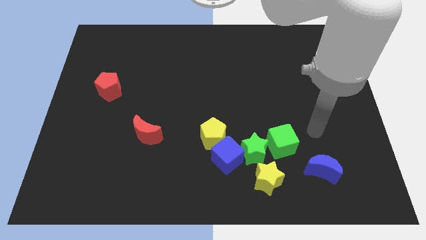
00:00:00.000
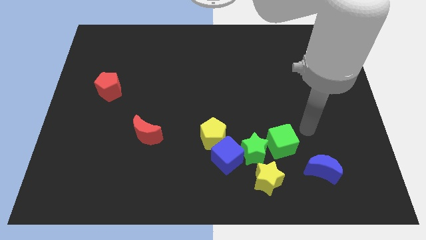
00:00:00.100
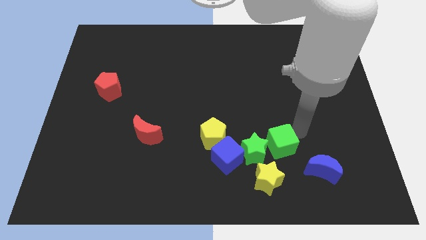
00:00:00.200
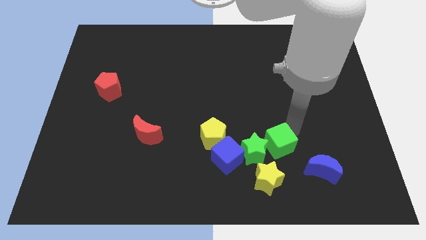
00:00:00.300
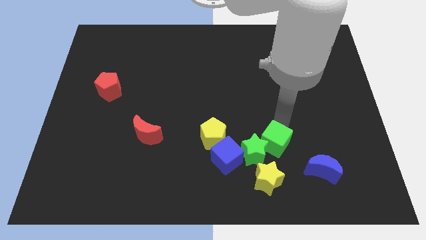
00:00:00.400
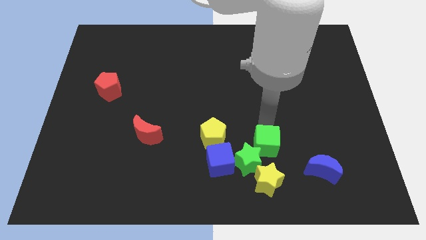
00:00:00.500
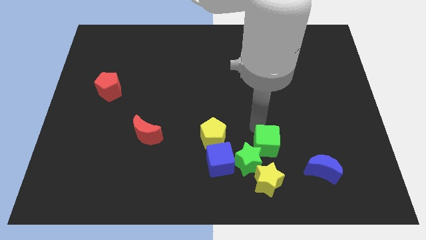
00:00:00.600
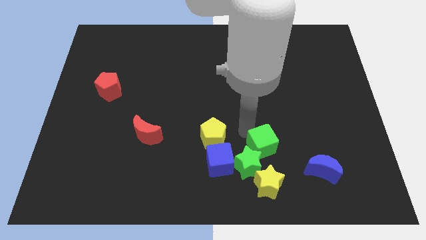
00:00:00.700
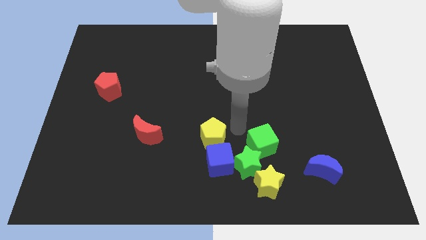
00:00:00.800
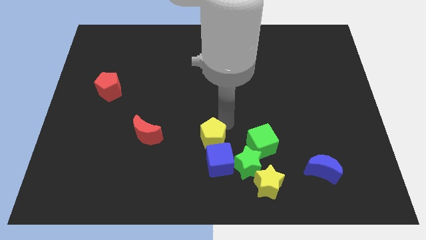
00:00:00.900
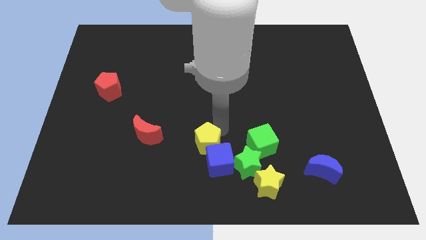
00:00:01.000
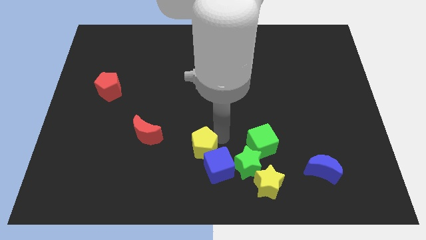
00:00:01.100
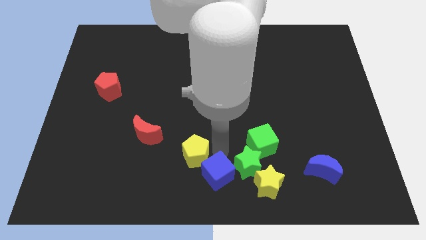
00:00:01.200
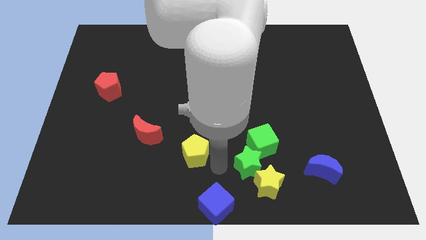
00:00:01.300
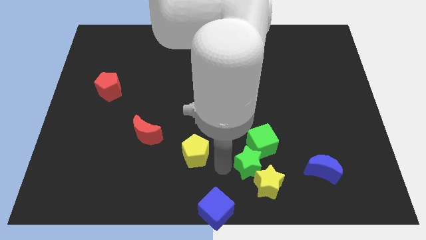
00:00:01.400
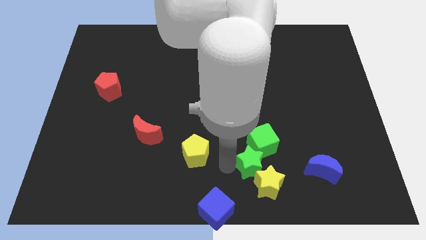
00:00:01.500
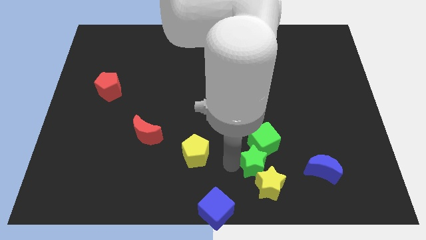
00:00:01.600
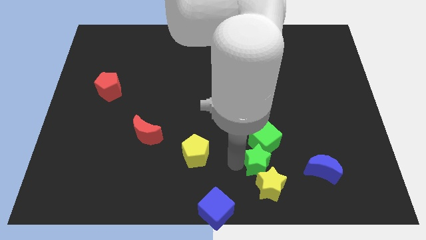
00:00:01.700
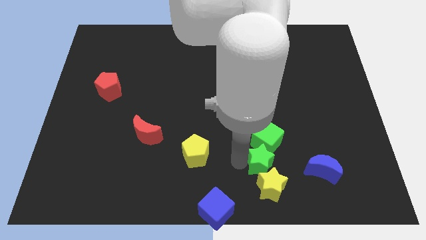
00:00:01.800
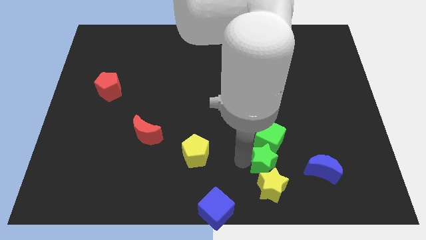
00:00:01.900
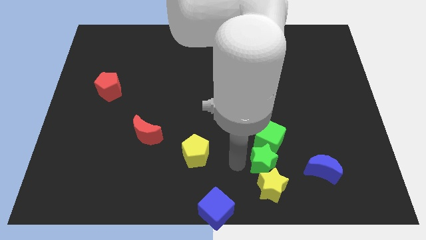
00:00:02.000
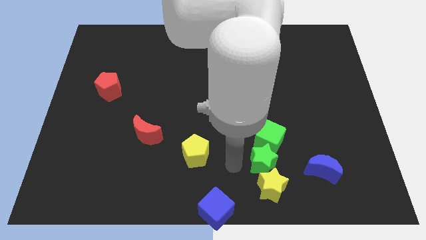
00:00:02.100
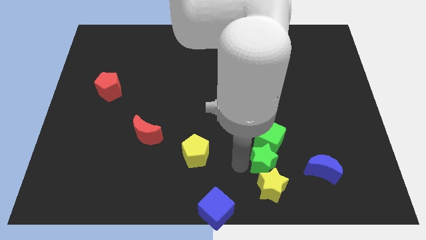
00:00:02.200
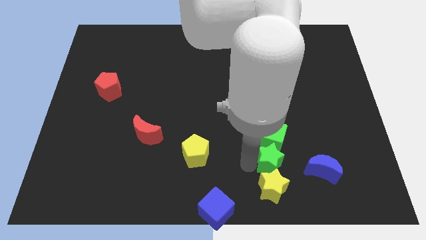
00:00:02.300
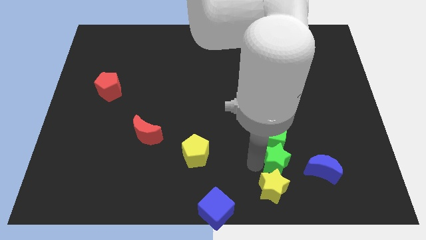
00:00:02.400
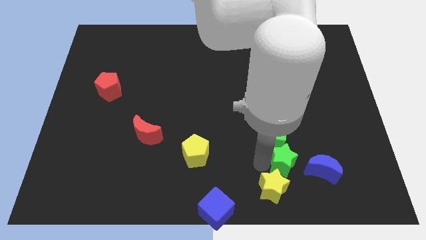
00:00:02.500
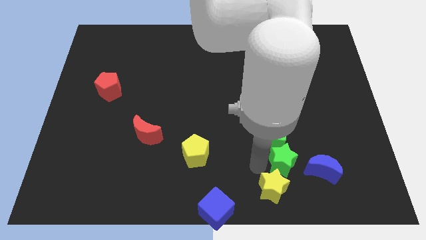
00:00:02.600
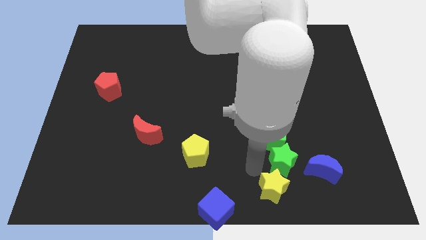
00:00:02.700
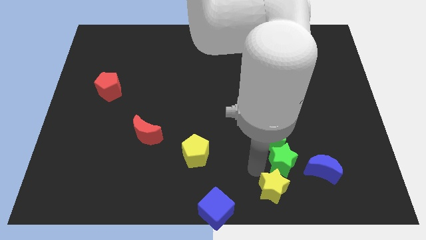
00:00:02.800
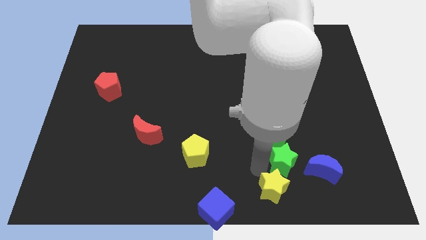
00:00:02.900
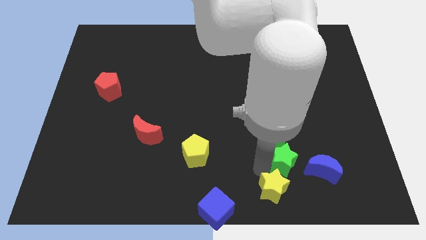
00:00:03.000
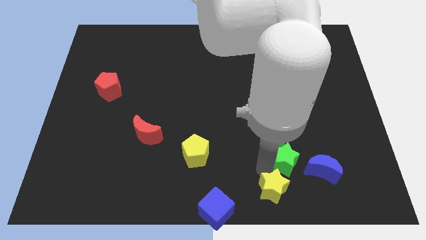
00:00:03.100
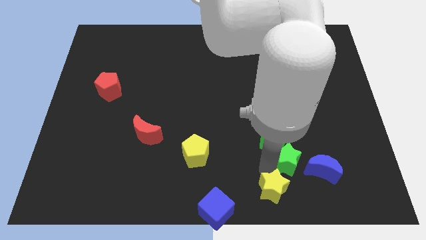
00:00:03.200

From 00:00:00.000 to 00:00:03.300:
separate the green star from the clump

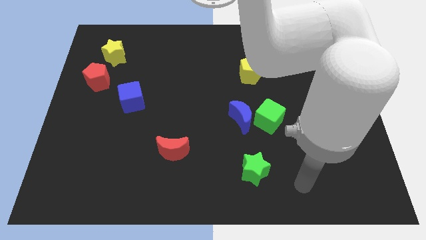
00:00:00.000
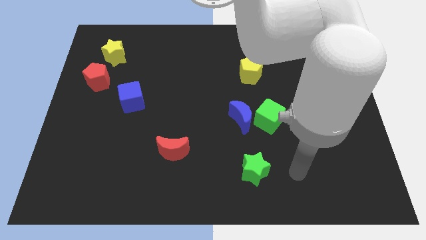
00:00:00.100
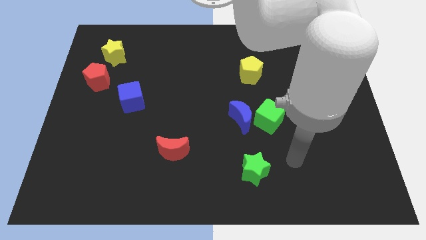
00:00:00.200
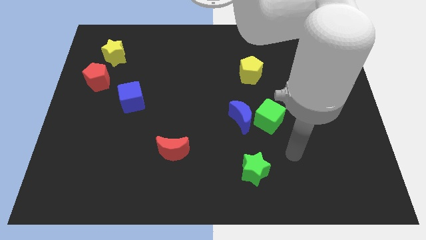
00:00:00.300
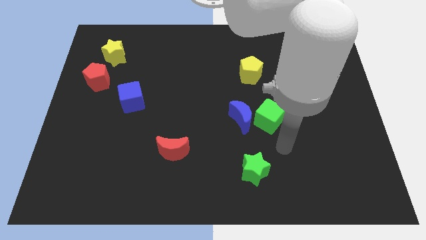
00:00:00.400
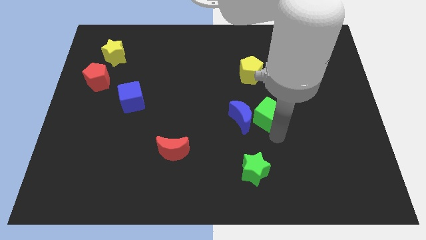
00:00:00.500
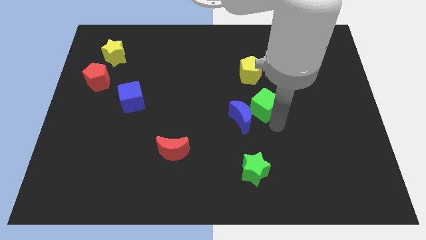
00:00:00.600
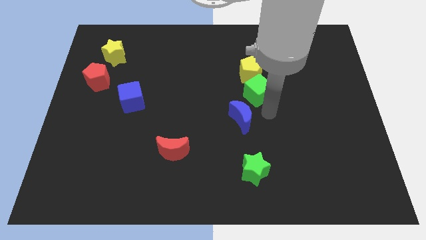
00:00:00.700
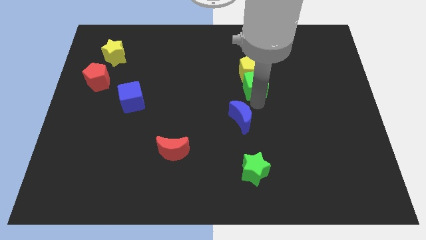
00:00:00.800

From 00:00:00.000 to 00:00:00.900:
move the blue moon away from the green cube

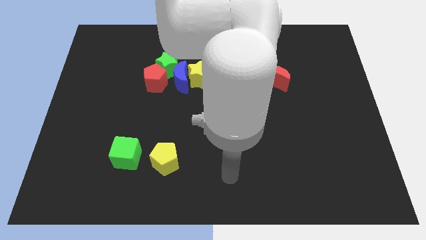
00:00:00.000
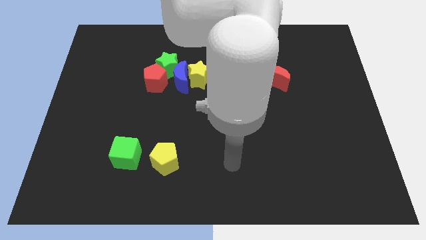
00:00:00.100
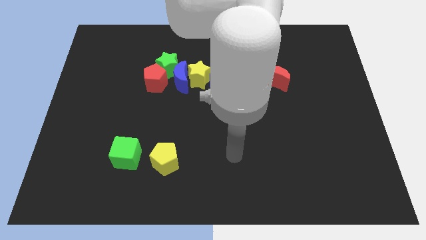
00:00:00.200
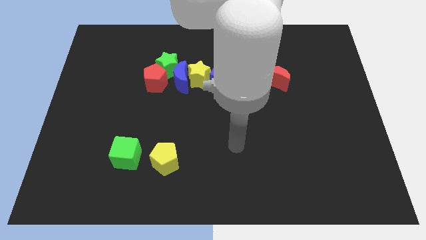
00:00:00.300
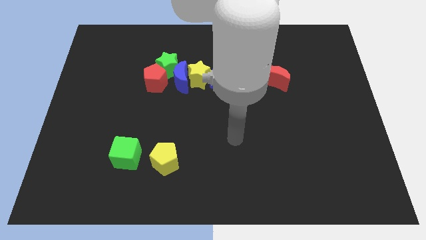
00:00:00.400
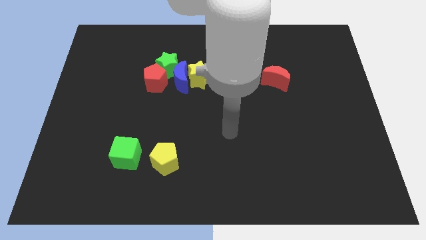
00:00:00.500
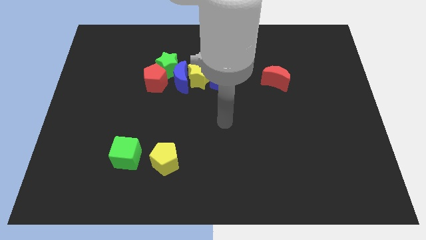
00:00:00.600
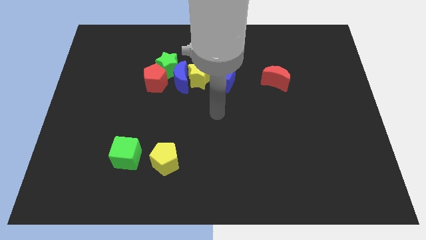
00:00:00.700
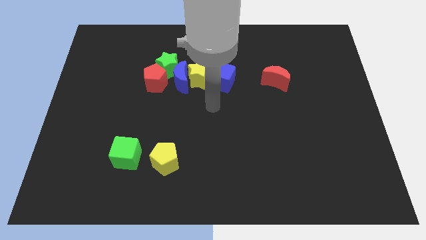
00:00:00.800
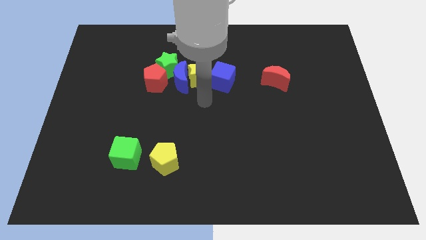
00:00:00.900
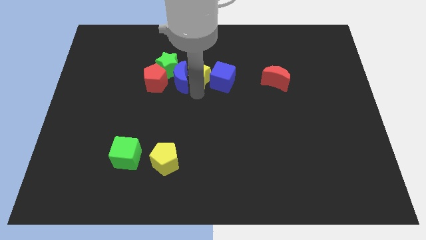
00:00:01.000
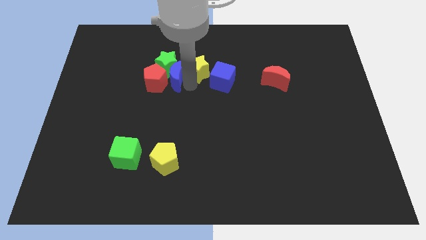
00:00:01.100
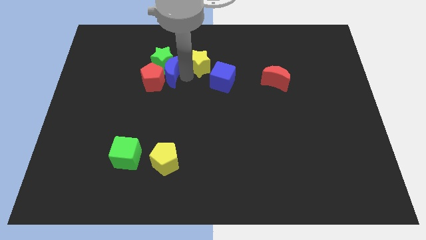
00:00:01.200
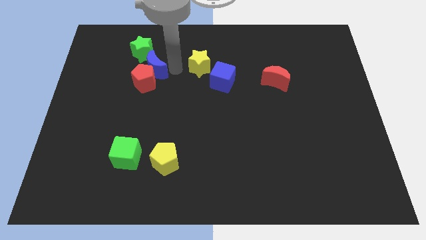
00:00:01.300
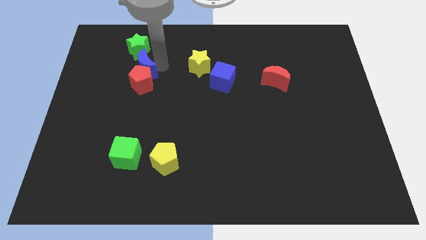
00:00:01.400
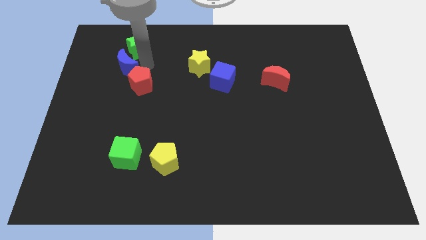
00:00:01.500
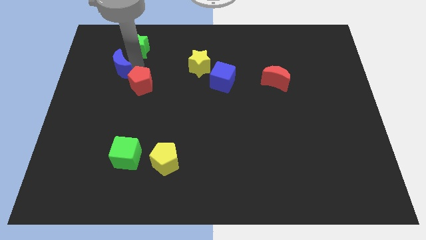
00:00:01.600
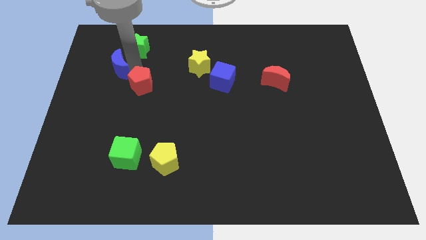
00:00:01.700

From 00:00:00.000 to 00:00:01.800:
move the red pentagon away from the green star and blue moon

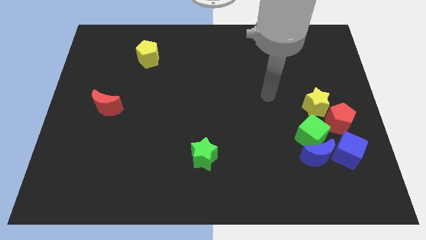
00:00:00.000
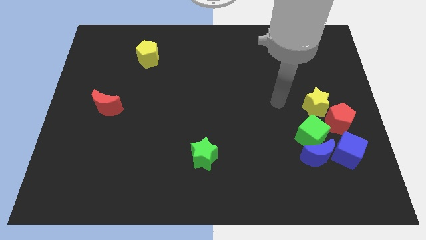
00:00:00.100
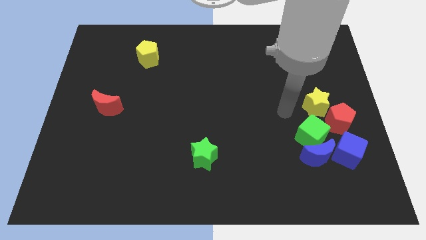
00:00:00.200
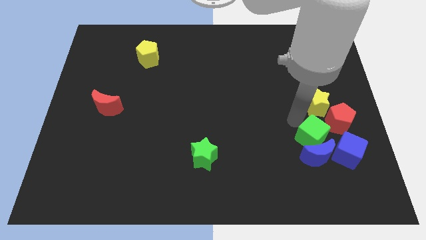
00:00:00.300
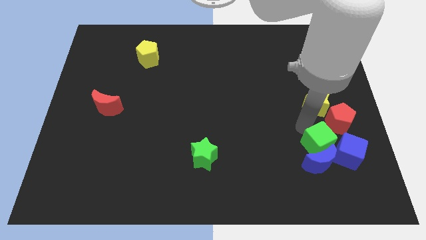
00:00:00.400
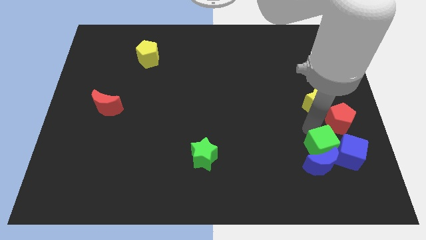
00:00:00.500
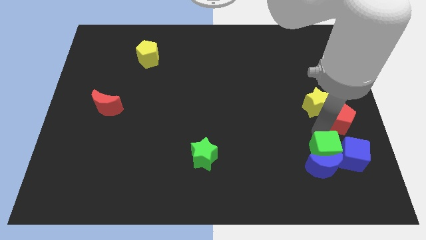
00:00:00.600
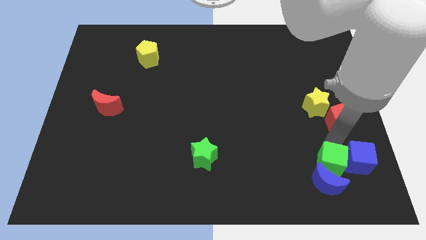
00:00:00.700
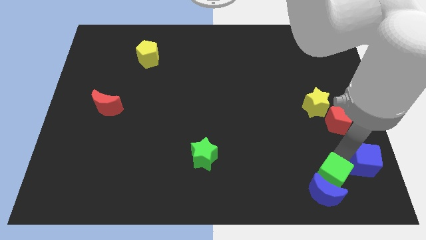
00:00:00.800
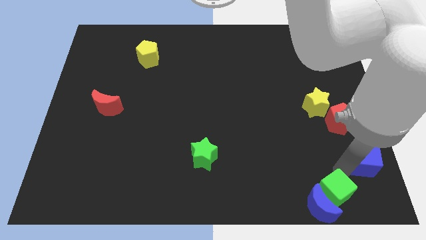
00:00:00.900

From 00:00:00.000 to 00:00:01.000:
pull the blue moon apart from the green cube and blue cube

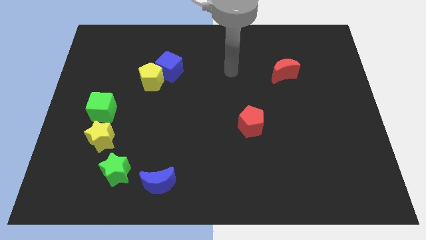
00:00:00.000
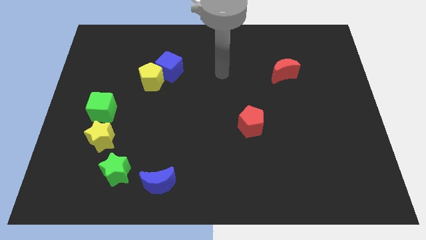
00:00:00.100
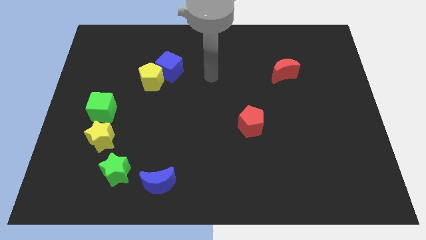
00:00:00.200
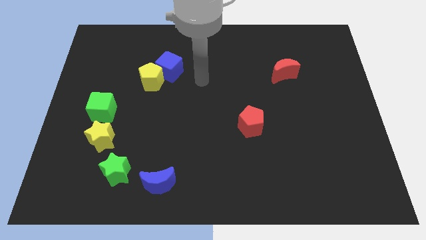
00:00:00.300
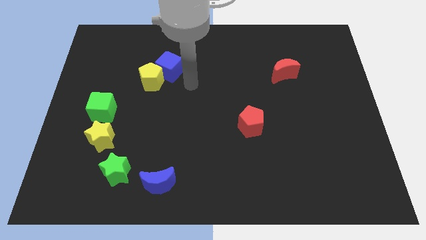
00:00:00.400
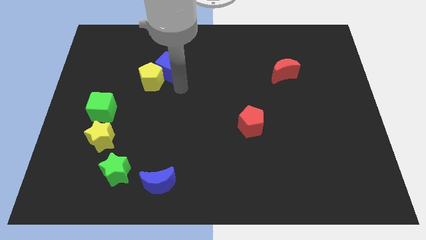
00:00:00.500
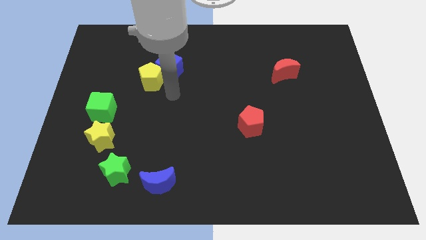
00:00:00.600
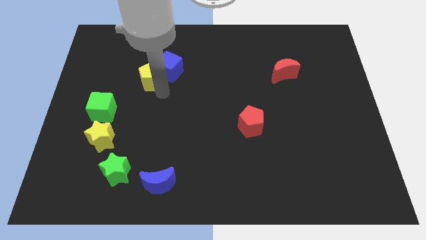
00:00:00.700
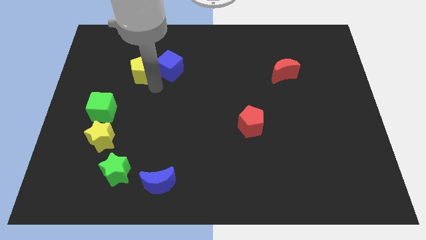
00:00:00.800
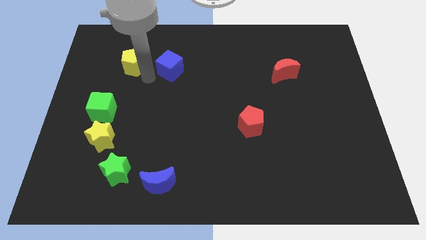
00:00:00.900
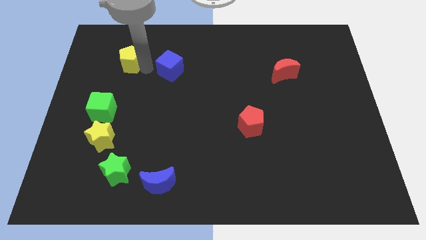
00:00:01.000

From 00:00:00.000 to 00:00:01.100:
move the blue cube away from the yellow pentagon

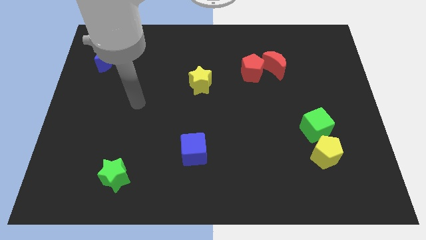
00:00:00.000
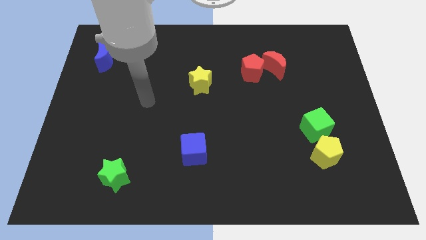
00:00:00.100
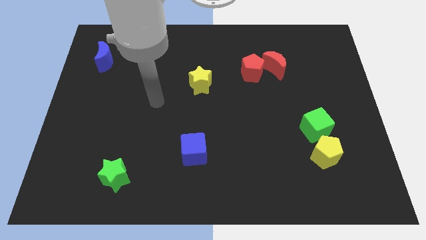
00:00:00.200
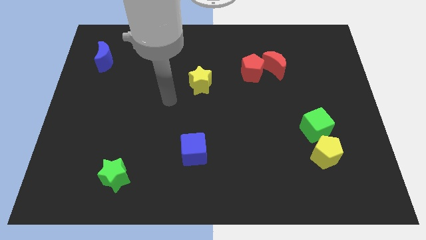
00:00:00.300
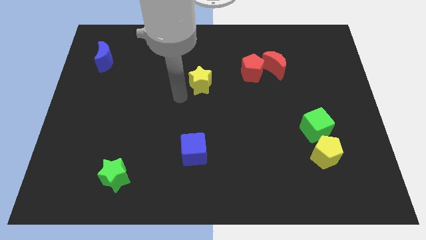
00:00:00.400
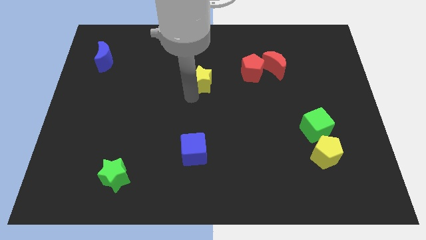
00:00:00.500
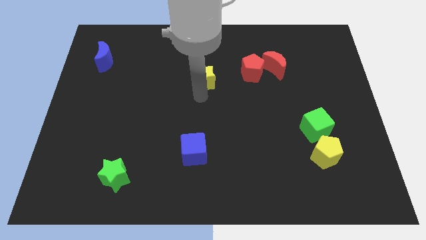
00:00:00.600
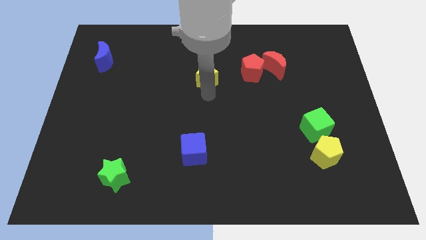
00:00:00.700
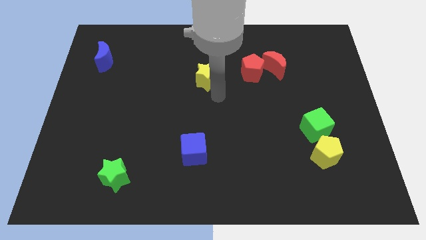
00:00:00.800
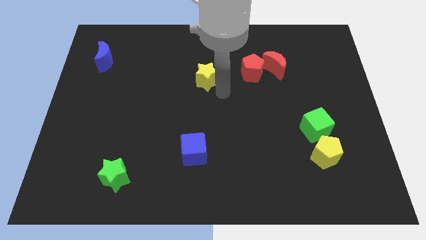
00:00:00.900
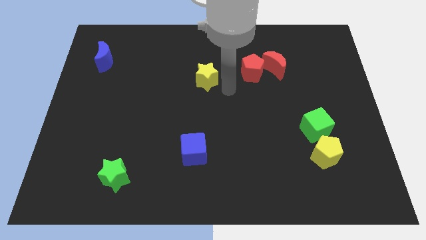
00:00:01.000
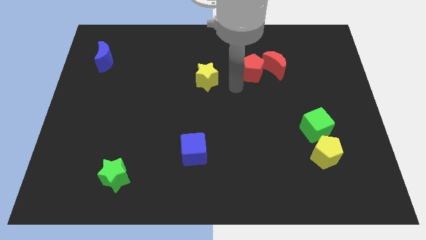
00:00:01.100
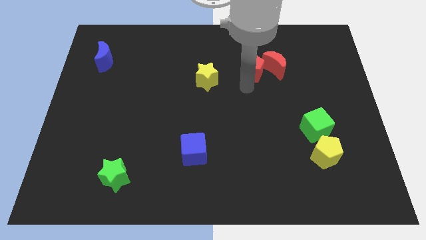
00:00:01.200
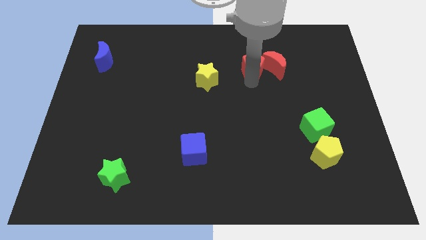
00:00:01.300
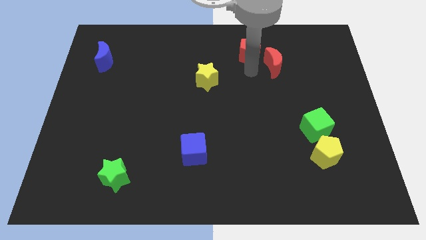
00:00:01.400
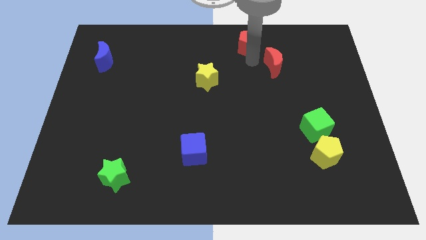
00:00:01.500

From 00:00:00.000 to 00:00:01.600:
separate the red moon from the red pentagon
